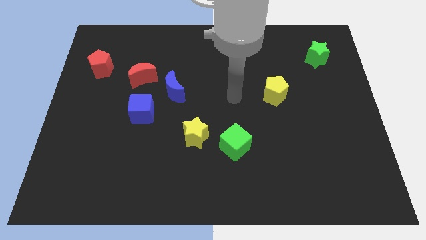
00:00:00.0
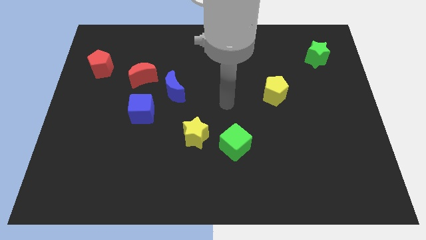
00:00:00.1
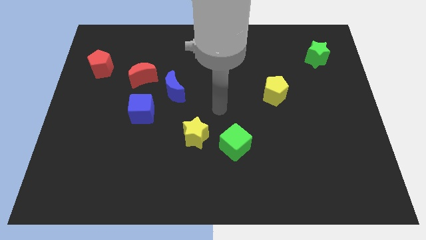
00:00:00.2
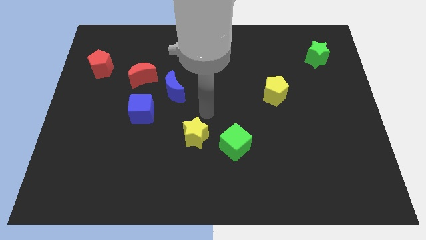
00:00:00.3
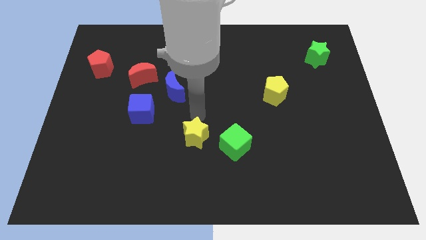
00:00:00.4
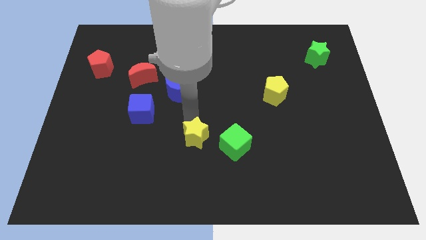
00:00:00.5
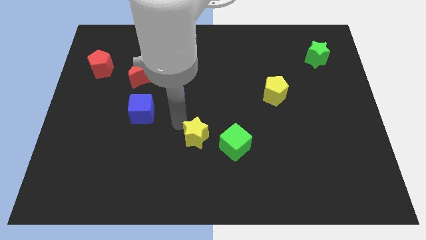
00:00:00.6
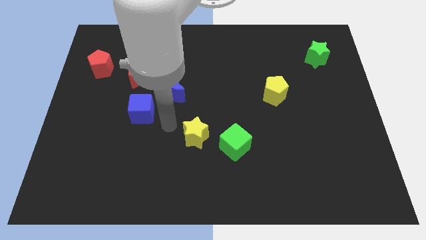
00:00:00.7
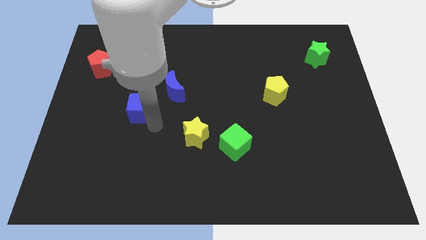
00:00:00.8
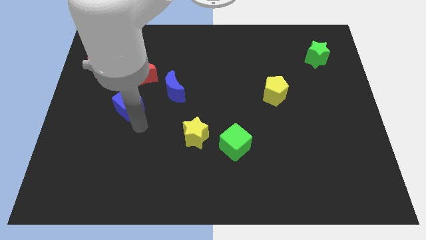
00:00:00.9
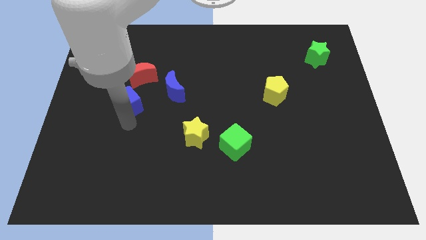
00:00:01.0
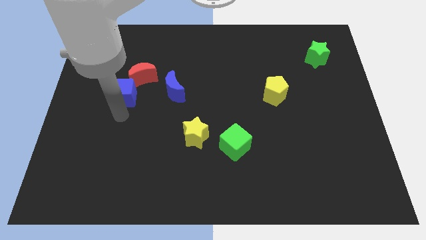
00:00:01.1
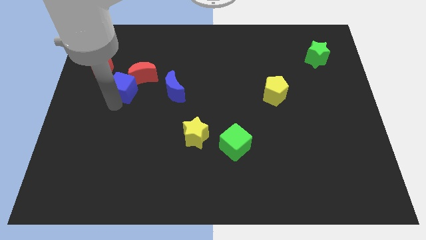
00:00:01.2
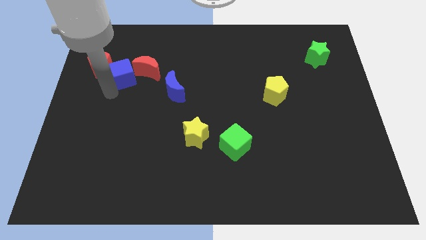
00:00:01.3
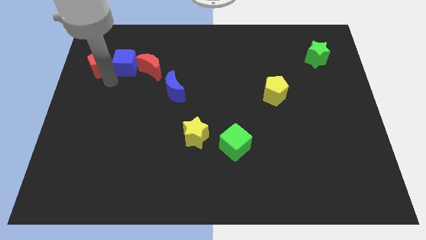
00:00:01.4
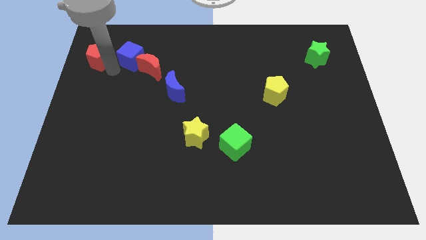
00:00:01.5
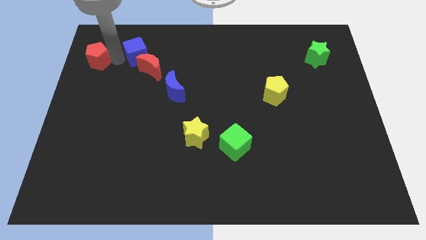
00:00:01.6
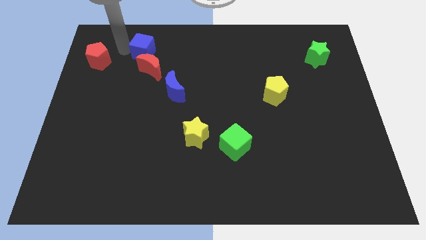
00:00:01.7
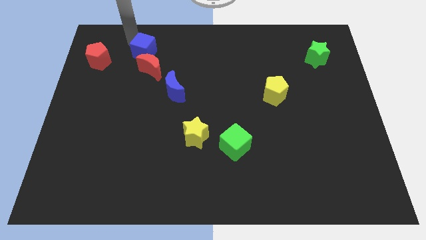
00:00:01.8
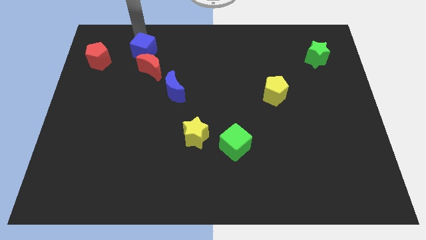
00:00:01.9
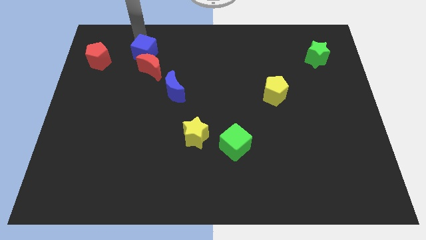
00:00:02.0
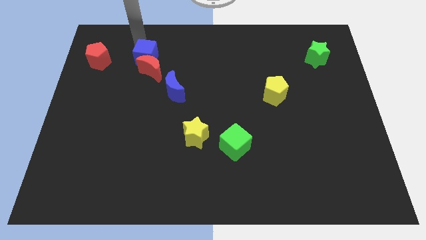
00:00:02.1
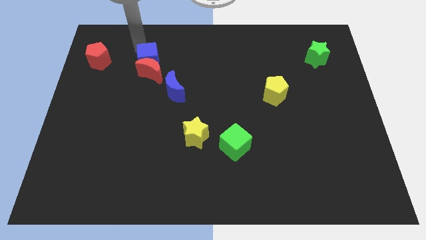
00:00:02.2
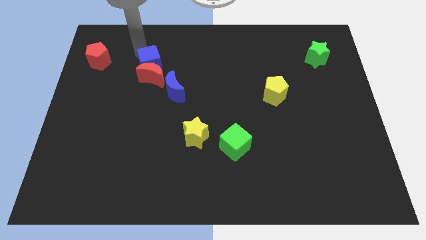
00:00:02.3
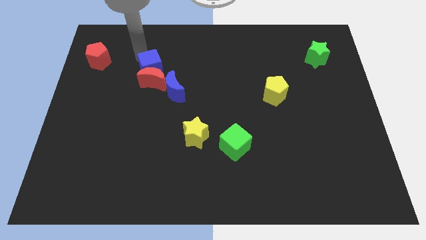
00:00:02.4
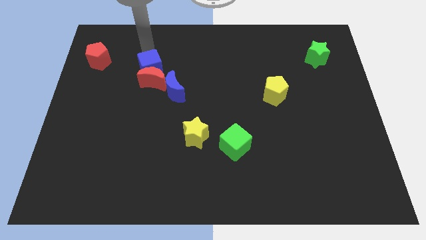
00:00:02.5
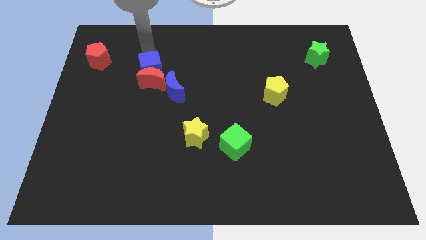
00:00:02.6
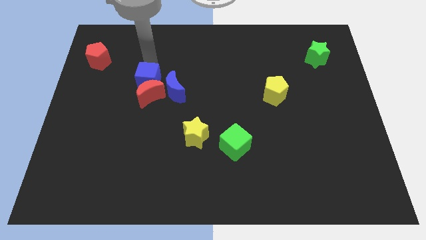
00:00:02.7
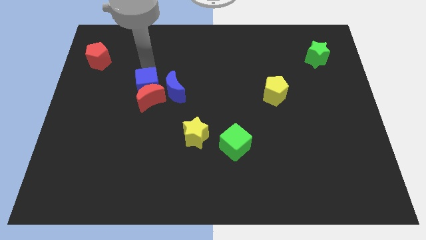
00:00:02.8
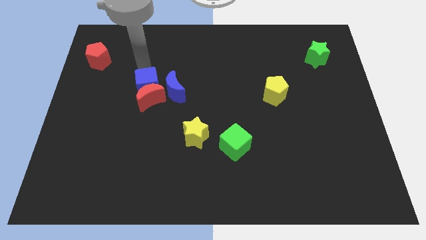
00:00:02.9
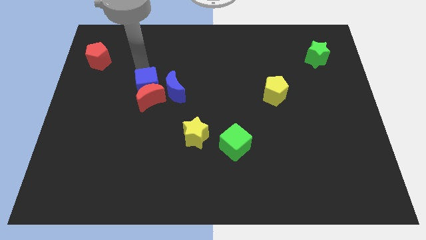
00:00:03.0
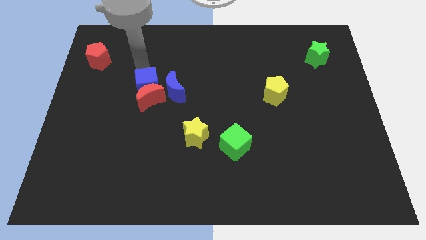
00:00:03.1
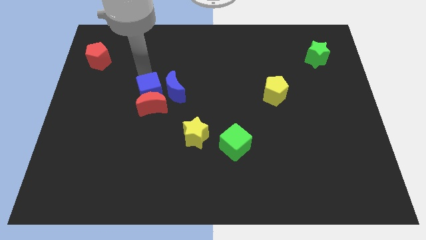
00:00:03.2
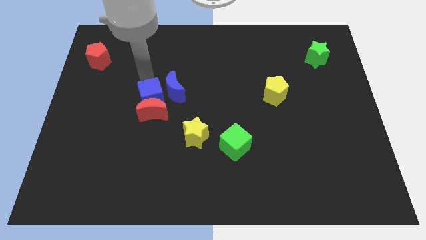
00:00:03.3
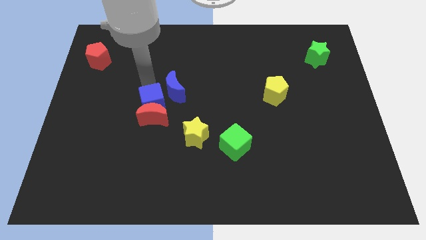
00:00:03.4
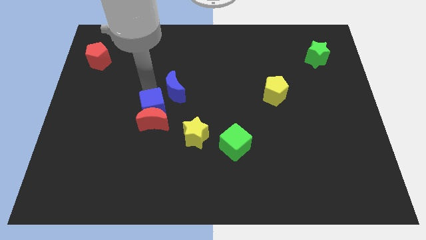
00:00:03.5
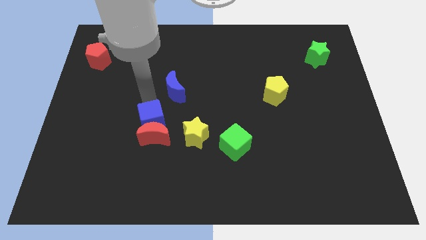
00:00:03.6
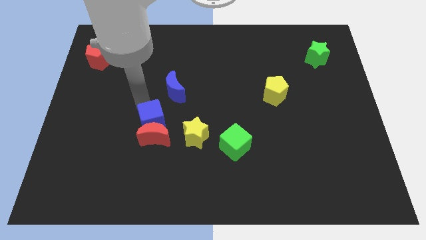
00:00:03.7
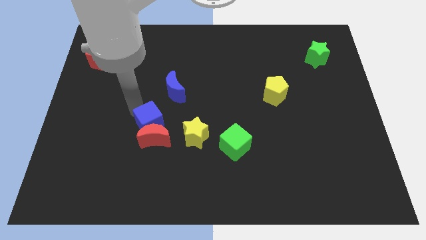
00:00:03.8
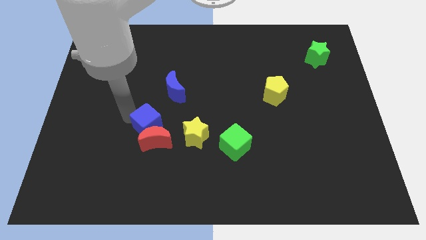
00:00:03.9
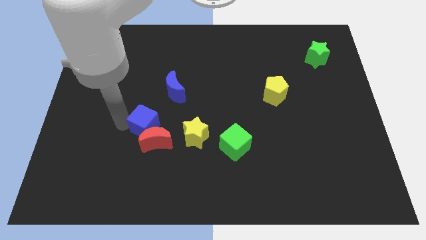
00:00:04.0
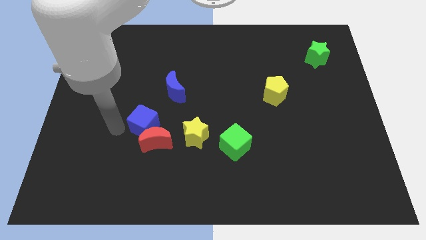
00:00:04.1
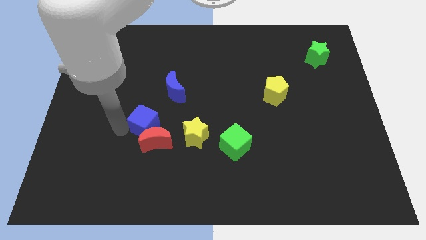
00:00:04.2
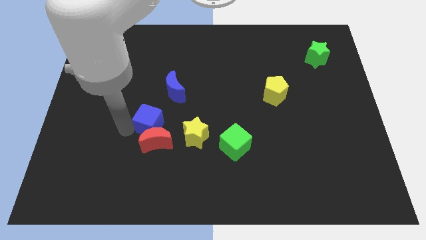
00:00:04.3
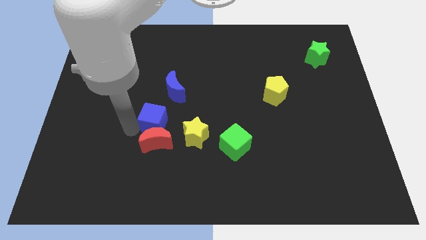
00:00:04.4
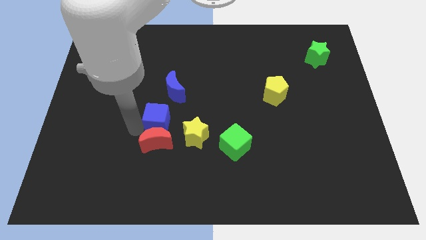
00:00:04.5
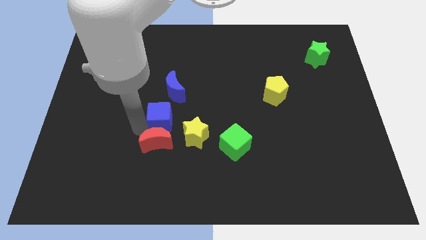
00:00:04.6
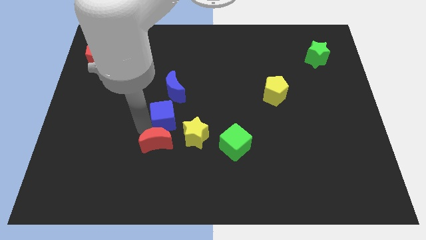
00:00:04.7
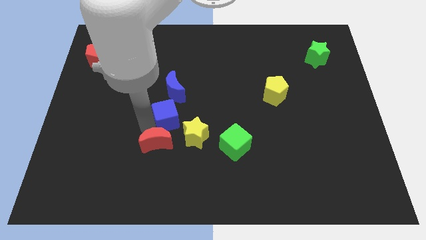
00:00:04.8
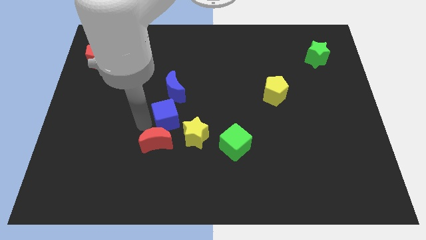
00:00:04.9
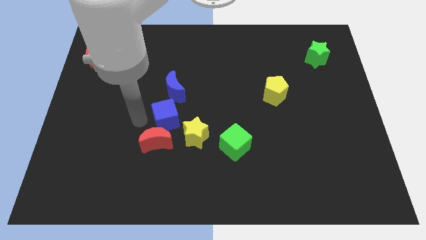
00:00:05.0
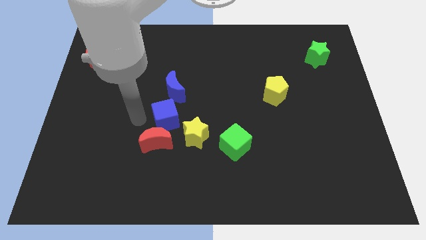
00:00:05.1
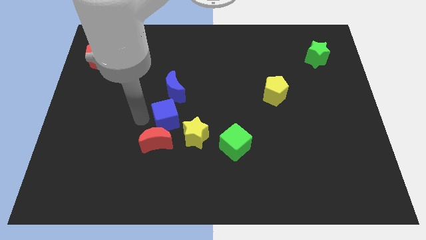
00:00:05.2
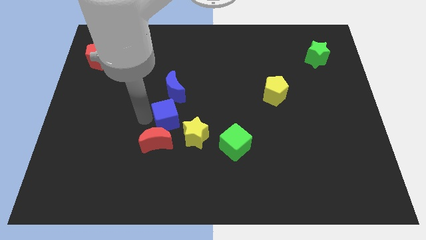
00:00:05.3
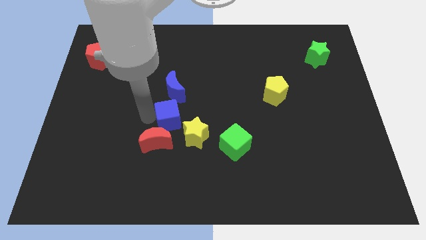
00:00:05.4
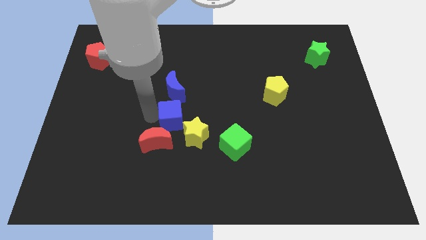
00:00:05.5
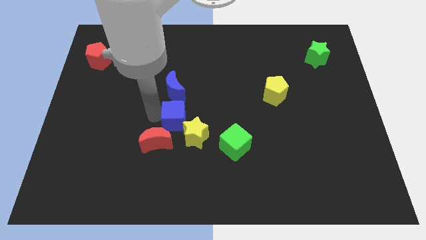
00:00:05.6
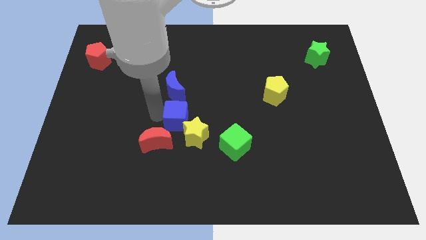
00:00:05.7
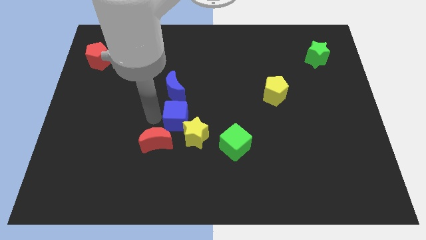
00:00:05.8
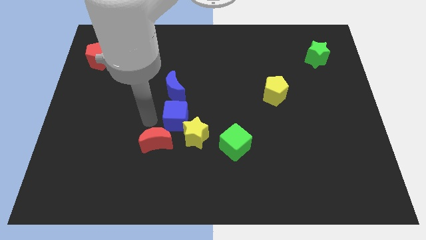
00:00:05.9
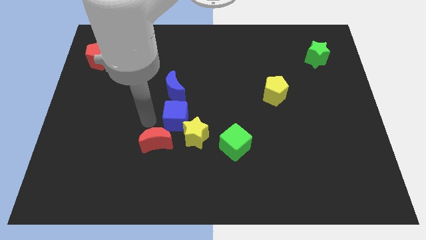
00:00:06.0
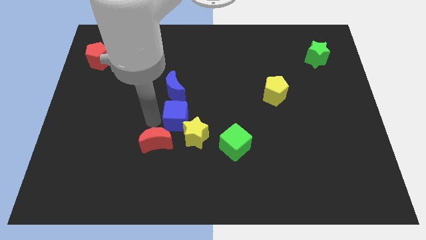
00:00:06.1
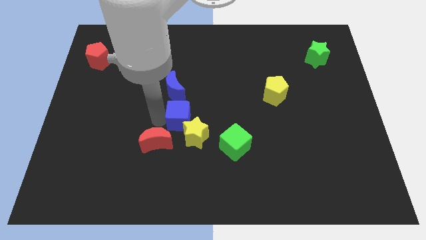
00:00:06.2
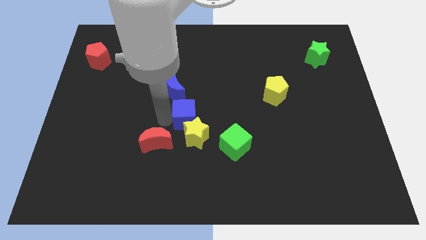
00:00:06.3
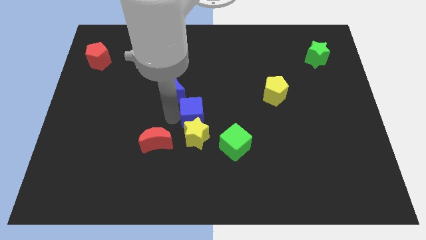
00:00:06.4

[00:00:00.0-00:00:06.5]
move the blue cube to the top left side of the green cube

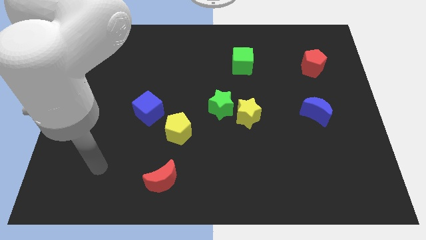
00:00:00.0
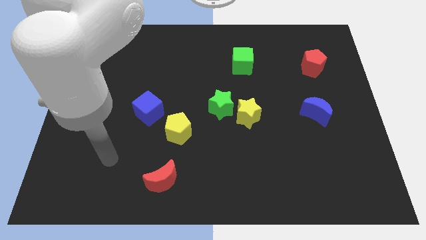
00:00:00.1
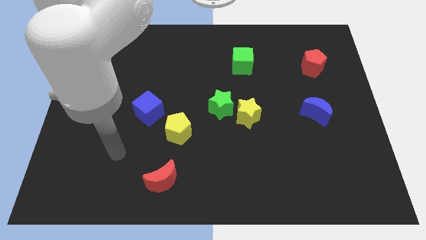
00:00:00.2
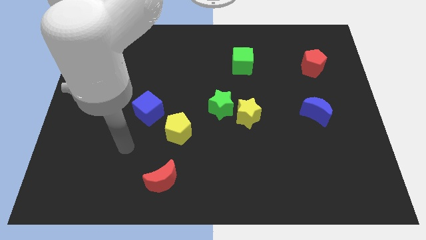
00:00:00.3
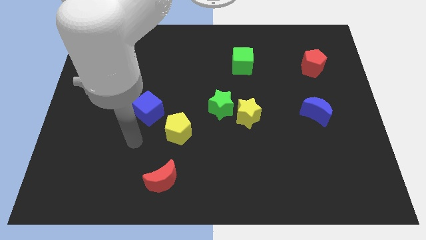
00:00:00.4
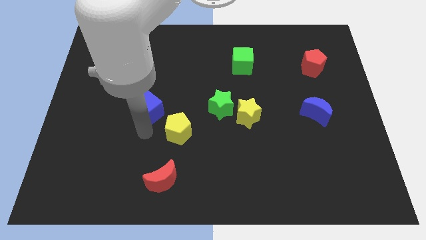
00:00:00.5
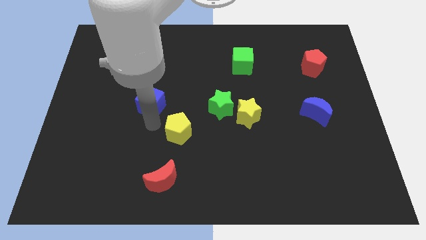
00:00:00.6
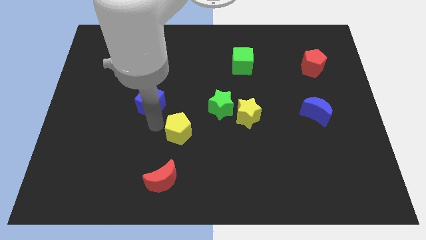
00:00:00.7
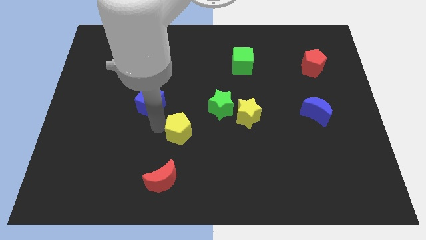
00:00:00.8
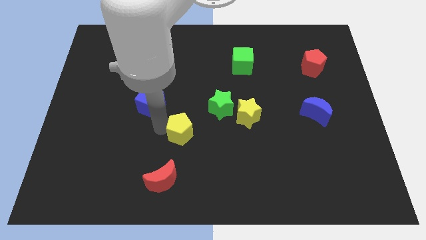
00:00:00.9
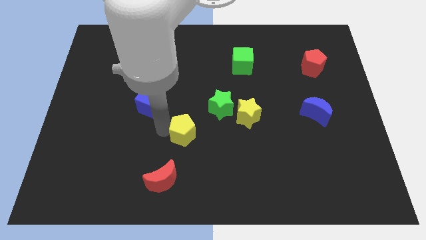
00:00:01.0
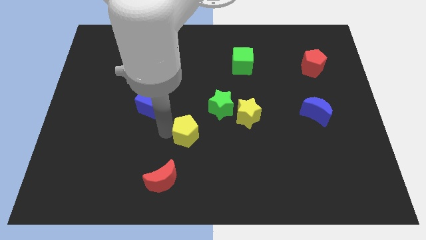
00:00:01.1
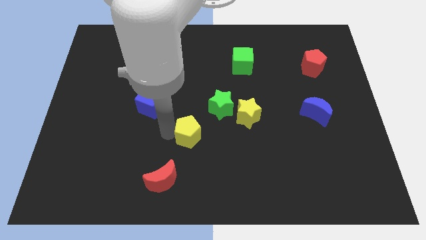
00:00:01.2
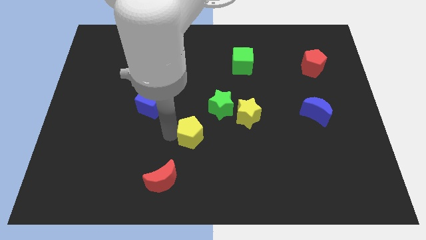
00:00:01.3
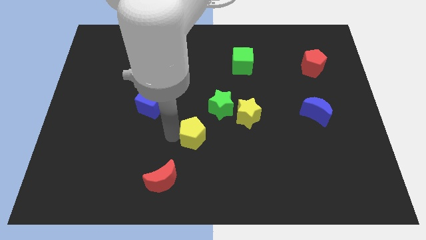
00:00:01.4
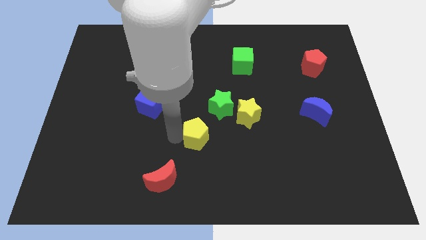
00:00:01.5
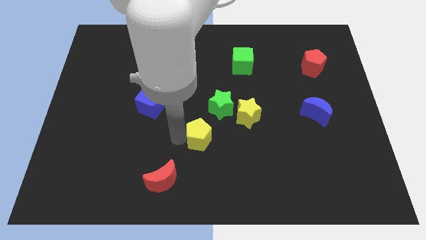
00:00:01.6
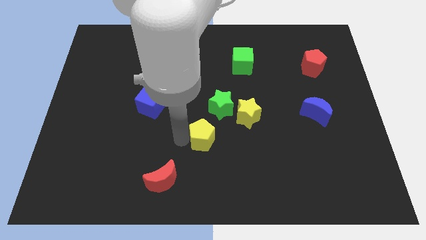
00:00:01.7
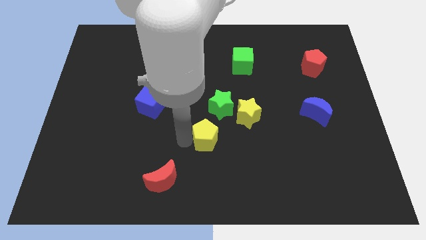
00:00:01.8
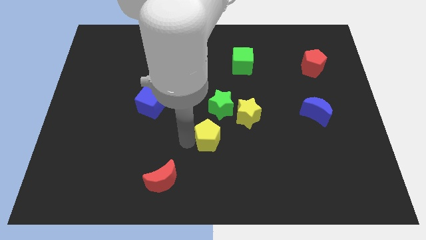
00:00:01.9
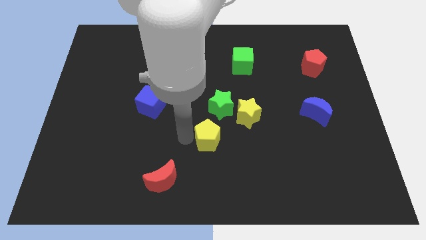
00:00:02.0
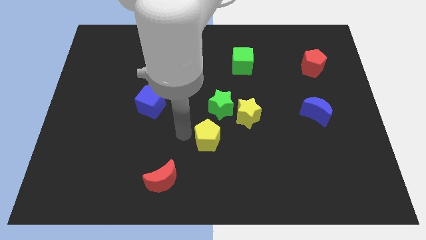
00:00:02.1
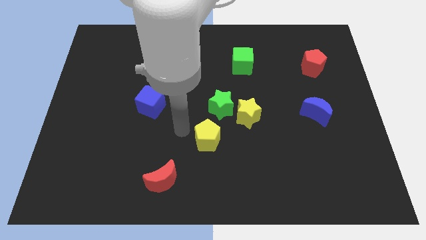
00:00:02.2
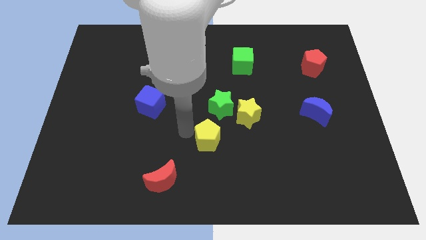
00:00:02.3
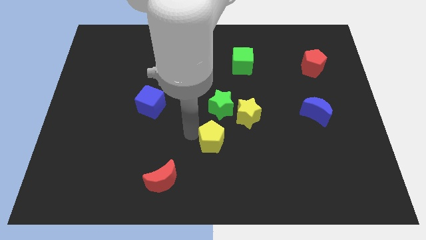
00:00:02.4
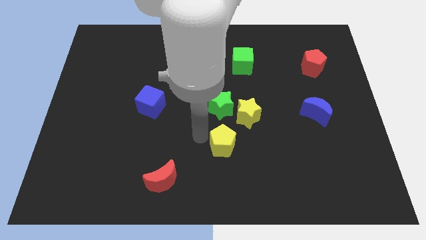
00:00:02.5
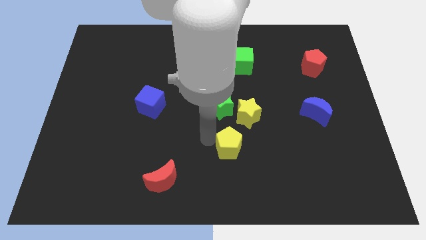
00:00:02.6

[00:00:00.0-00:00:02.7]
put the yellow pentagon to the bottom of the yellow star
